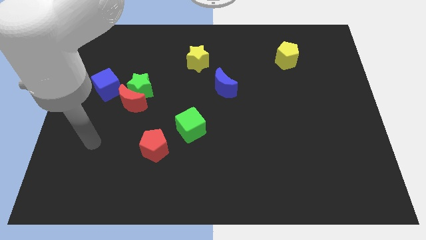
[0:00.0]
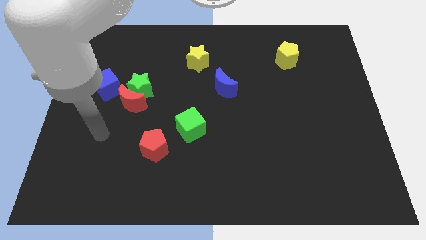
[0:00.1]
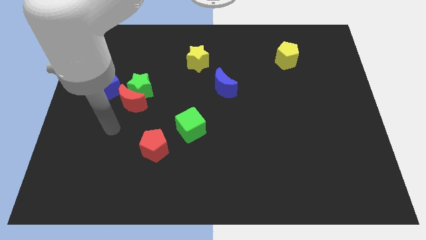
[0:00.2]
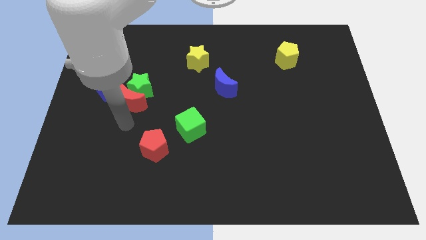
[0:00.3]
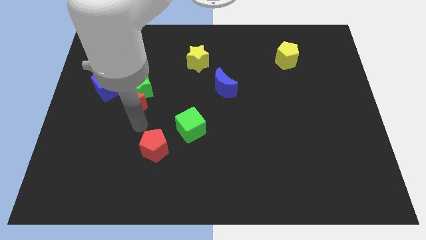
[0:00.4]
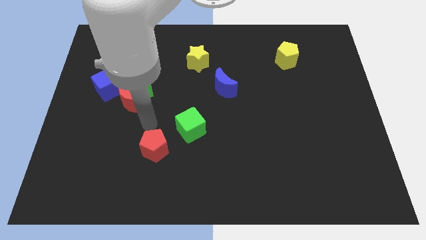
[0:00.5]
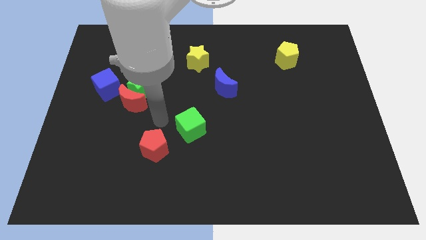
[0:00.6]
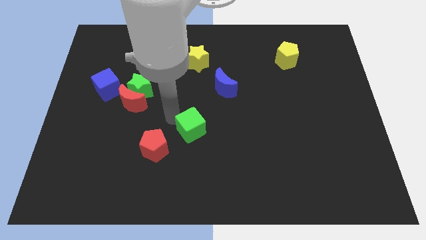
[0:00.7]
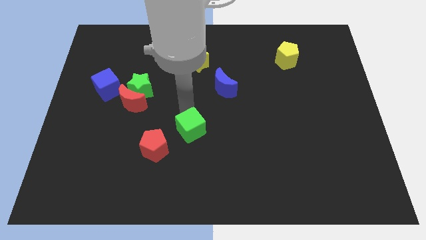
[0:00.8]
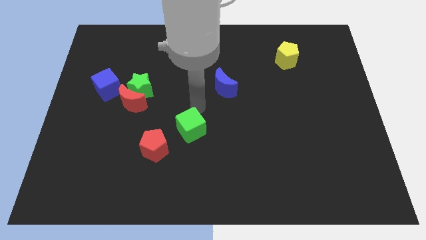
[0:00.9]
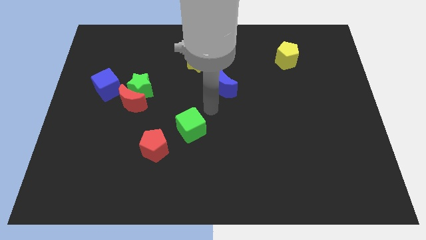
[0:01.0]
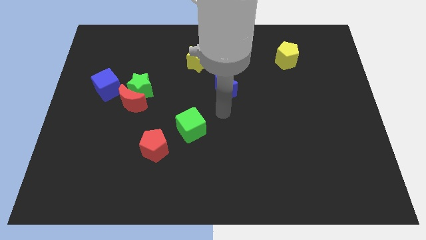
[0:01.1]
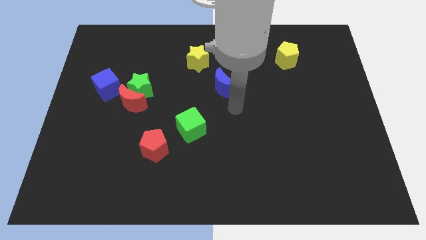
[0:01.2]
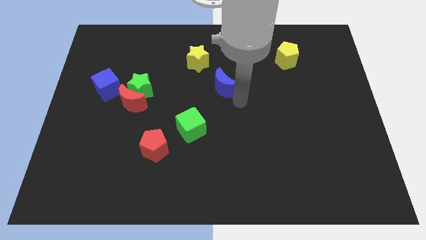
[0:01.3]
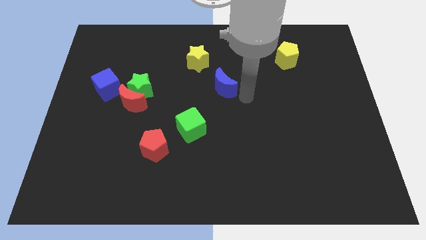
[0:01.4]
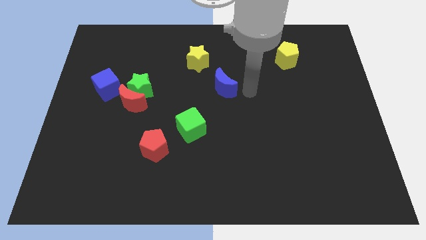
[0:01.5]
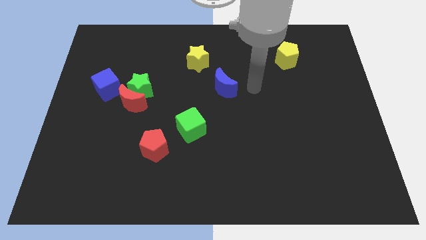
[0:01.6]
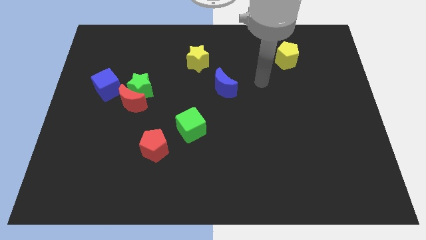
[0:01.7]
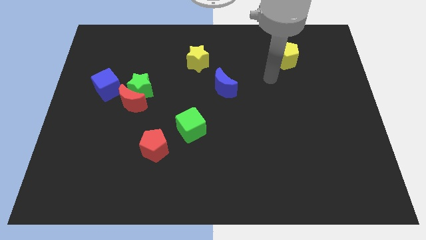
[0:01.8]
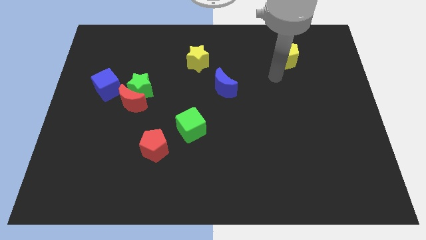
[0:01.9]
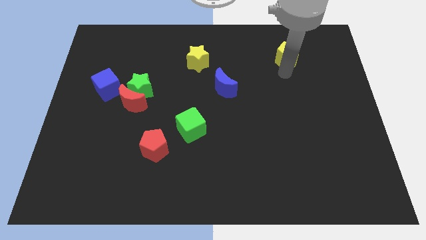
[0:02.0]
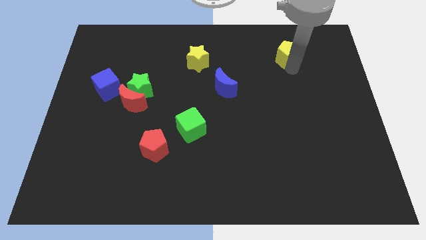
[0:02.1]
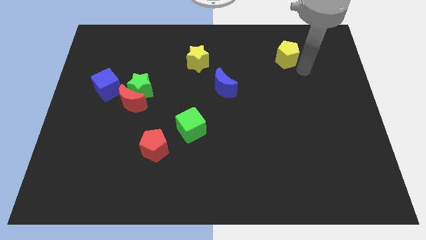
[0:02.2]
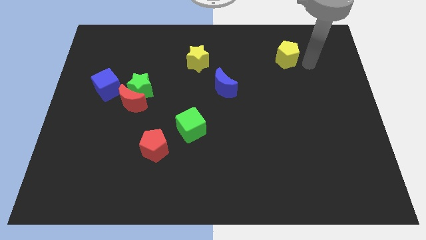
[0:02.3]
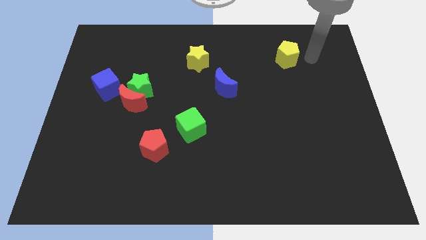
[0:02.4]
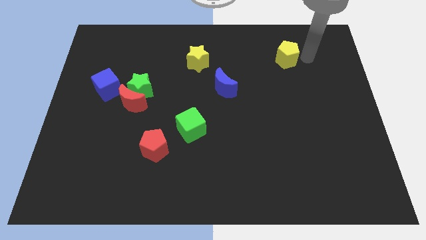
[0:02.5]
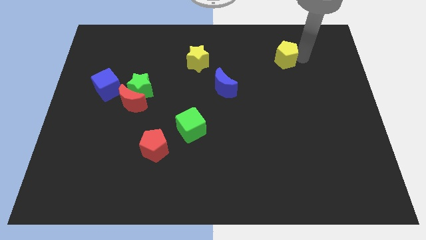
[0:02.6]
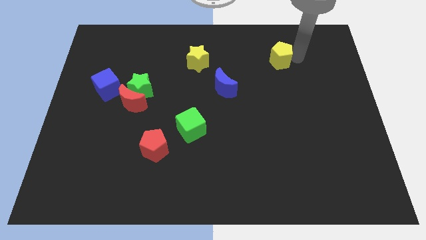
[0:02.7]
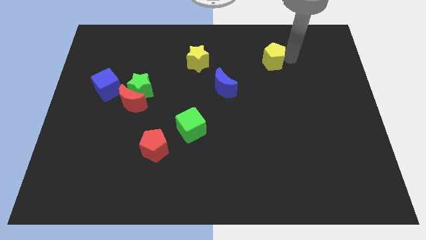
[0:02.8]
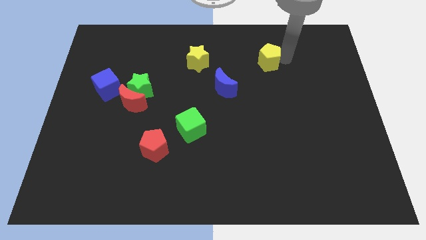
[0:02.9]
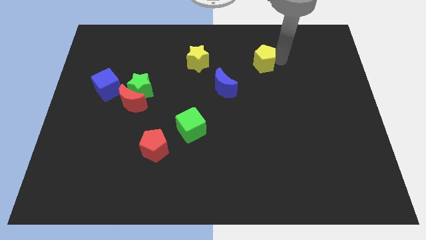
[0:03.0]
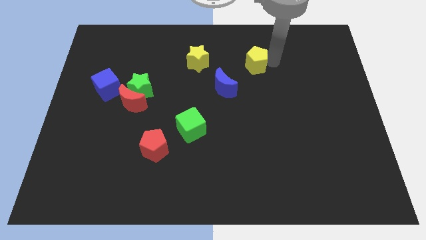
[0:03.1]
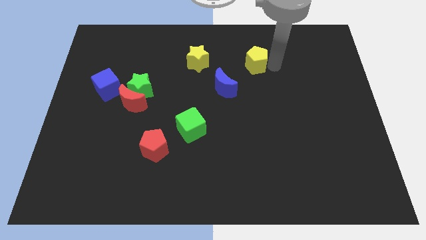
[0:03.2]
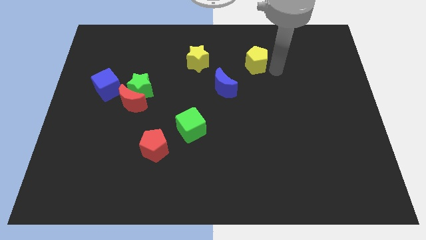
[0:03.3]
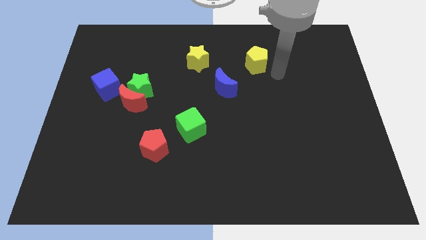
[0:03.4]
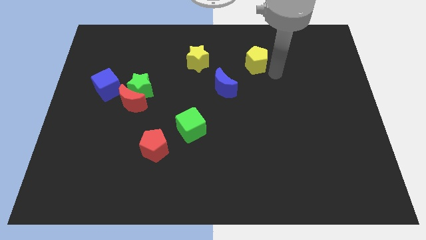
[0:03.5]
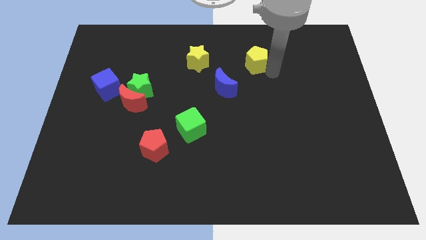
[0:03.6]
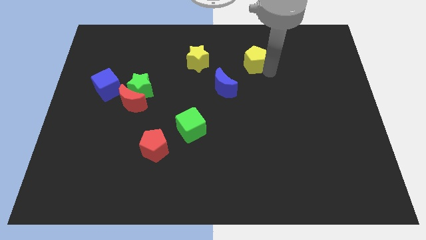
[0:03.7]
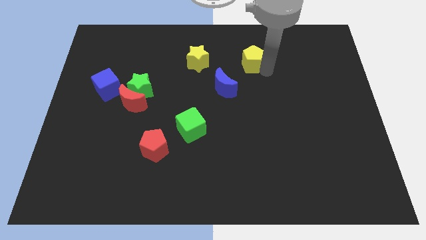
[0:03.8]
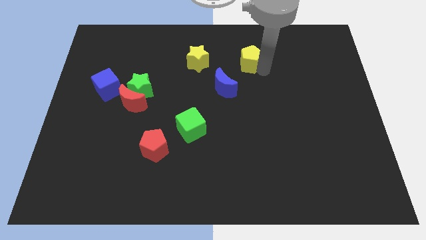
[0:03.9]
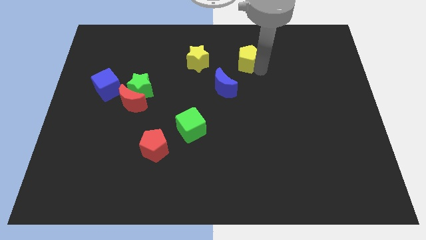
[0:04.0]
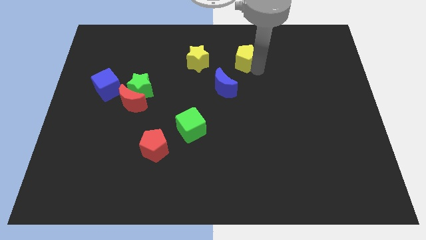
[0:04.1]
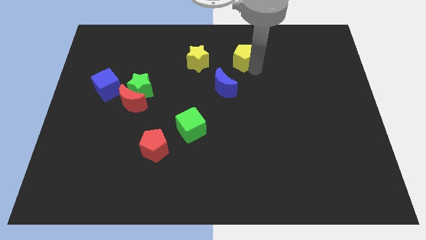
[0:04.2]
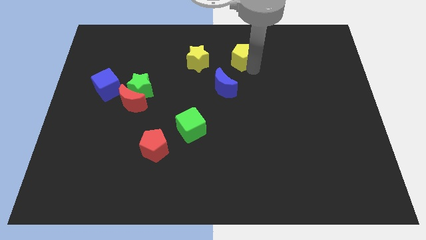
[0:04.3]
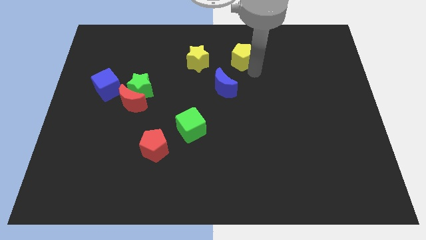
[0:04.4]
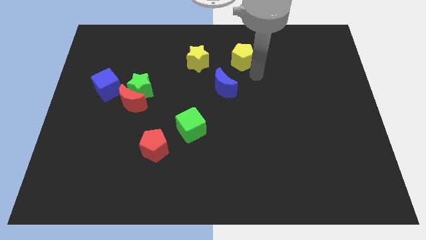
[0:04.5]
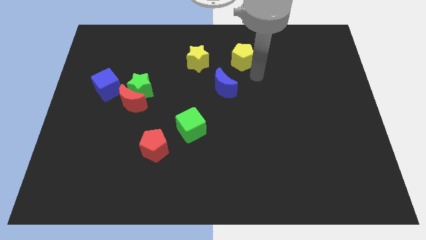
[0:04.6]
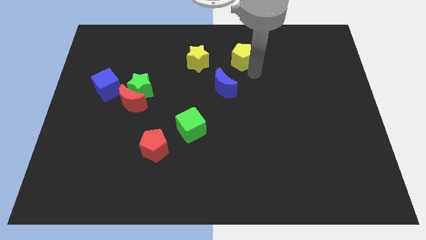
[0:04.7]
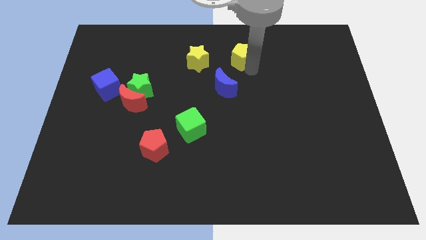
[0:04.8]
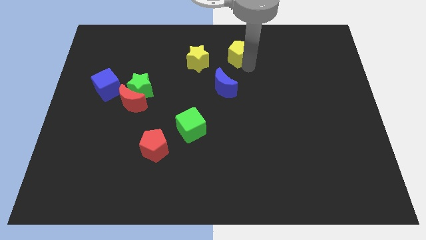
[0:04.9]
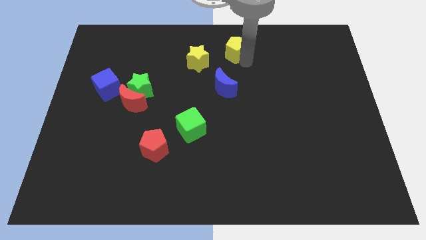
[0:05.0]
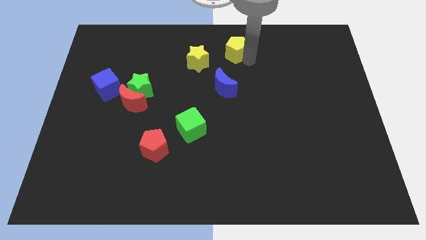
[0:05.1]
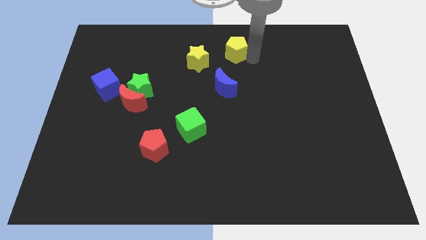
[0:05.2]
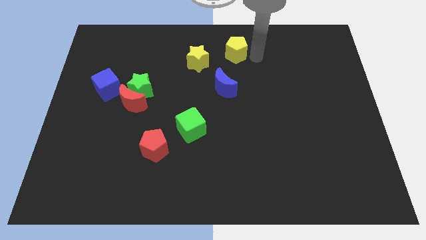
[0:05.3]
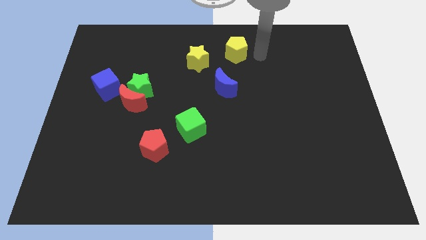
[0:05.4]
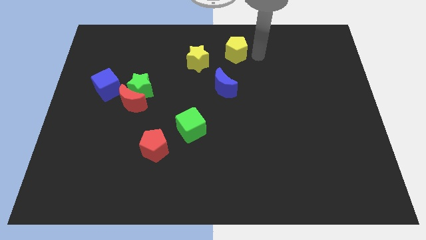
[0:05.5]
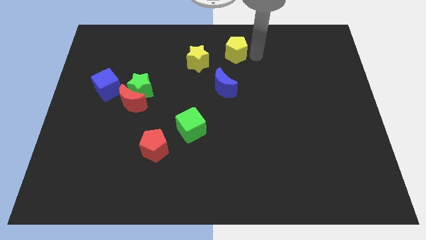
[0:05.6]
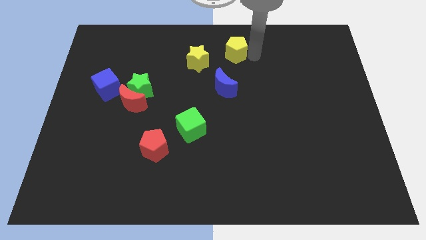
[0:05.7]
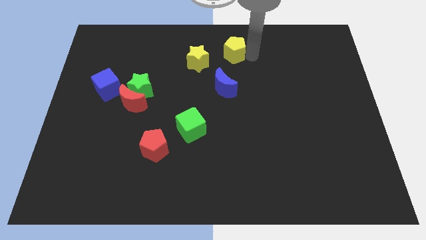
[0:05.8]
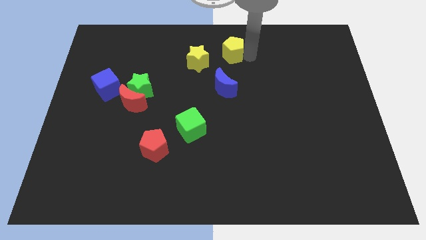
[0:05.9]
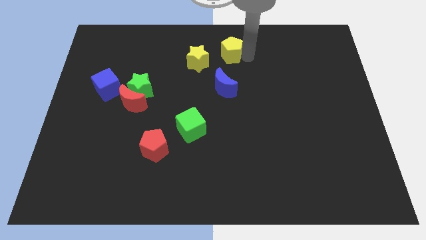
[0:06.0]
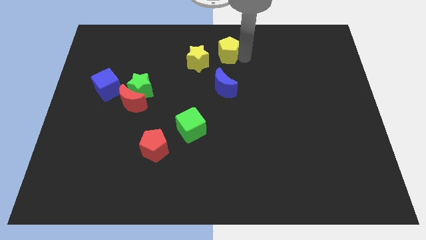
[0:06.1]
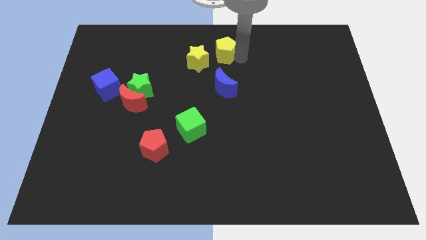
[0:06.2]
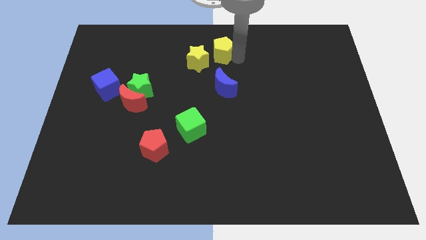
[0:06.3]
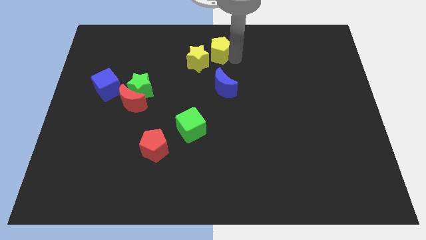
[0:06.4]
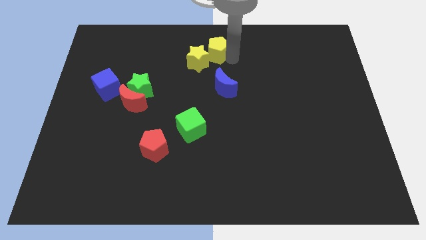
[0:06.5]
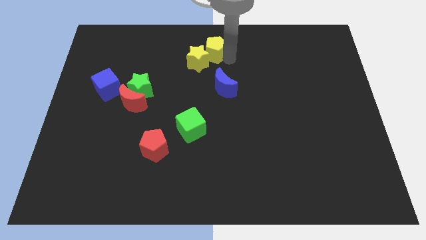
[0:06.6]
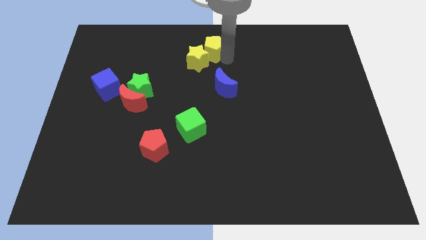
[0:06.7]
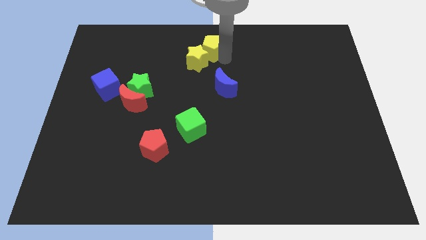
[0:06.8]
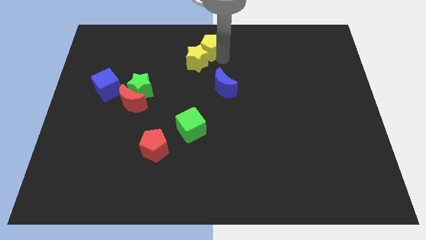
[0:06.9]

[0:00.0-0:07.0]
push the yellow pentagon left

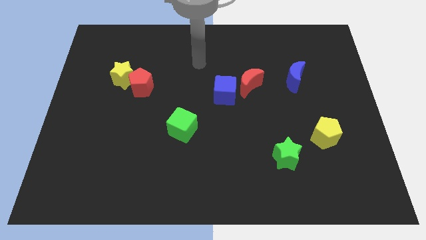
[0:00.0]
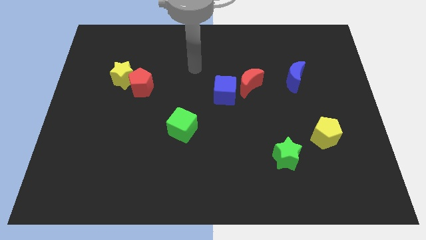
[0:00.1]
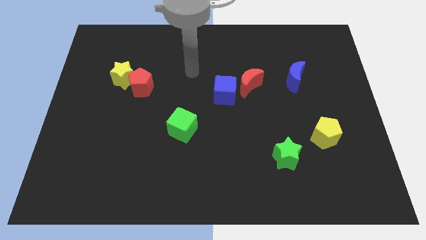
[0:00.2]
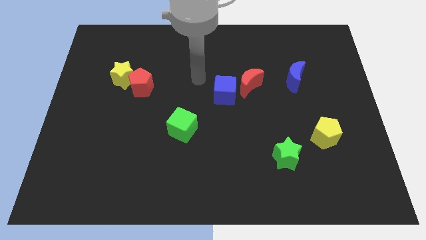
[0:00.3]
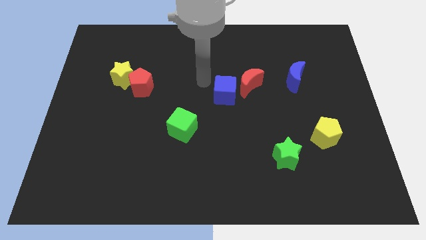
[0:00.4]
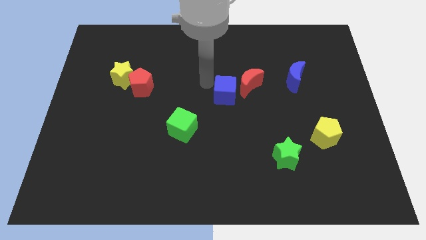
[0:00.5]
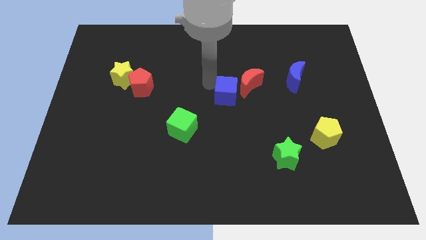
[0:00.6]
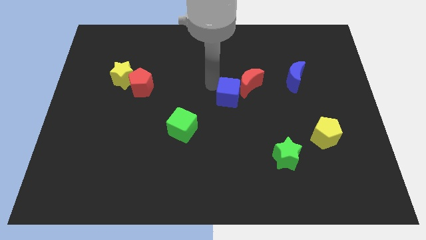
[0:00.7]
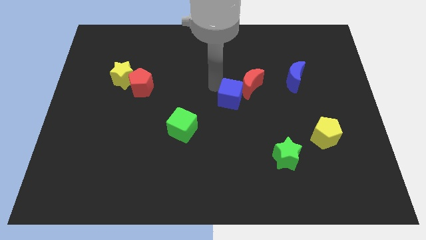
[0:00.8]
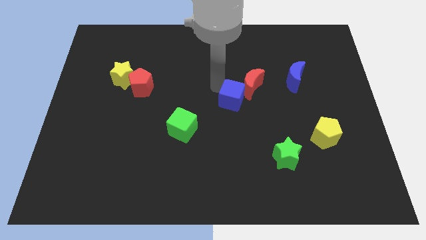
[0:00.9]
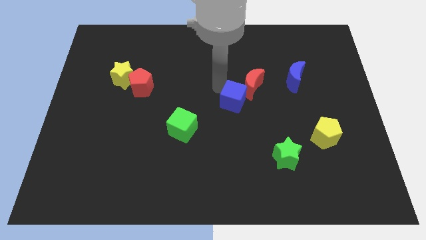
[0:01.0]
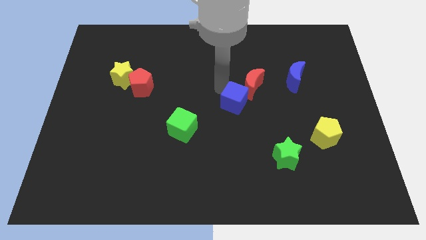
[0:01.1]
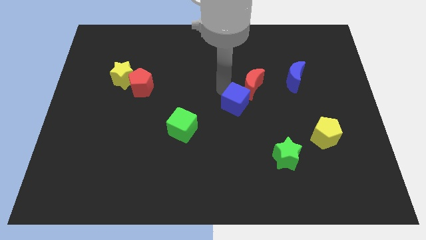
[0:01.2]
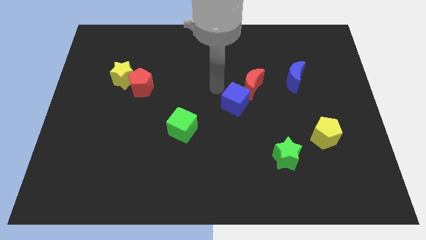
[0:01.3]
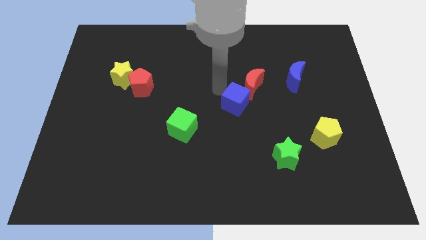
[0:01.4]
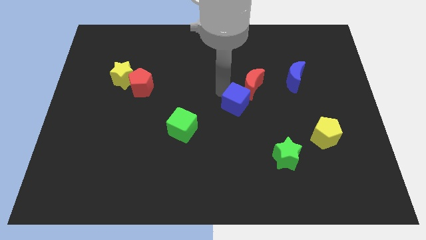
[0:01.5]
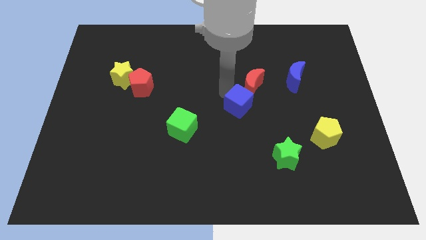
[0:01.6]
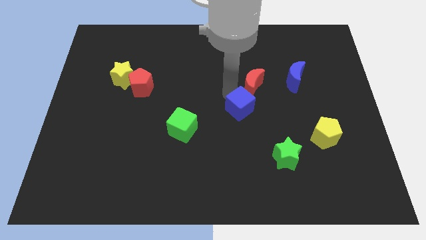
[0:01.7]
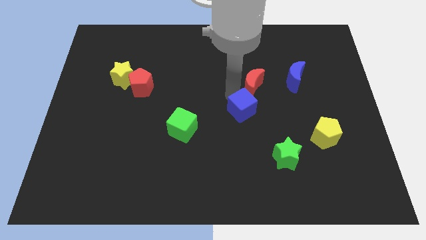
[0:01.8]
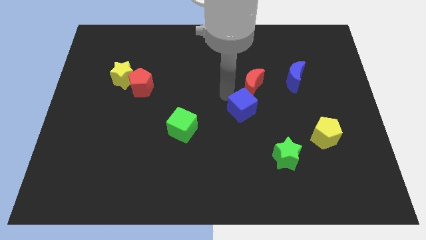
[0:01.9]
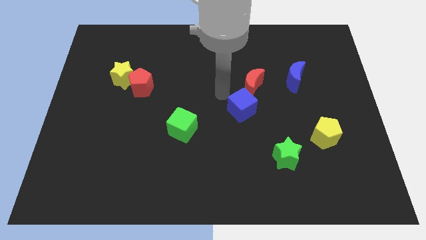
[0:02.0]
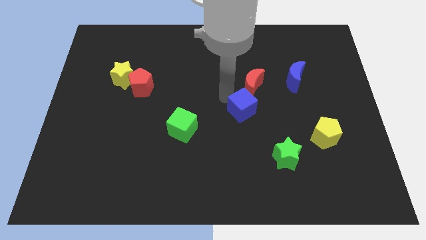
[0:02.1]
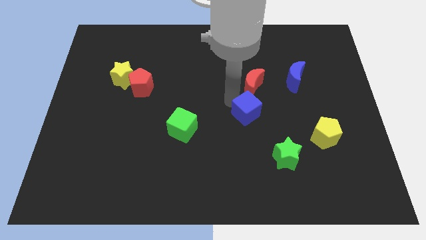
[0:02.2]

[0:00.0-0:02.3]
move the blue cube a little diagonally down and to the right
